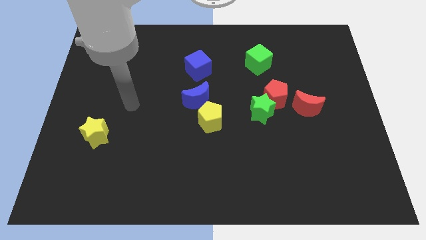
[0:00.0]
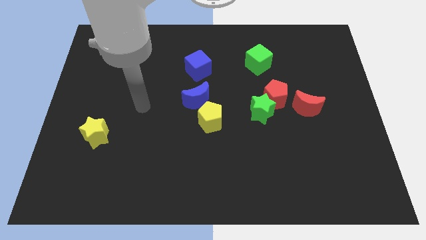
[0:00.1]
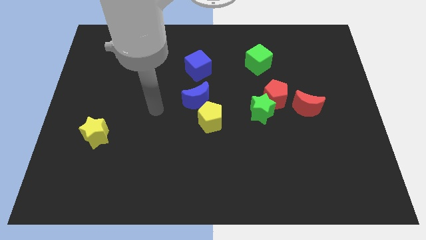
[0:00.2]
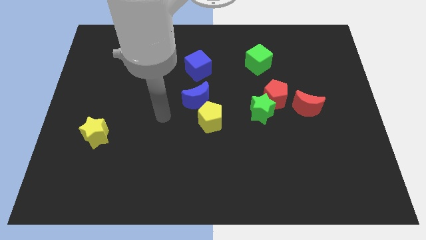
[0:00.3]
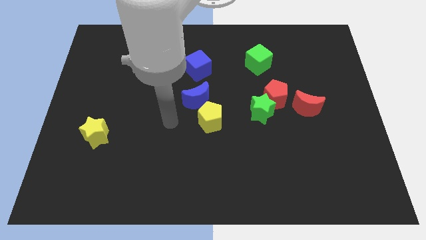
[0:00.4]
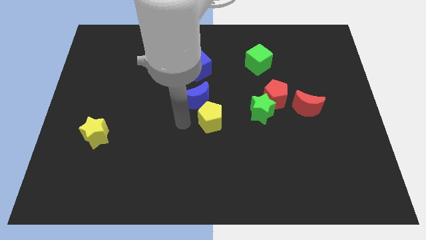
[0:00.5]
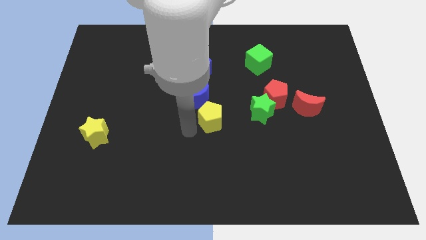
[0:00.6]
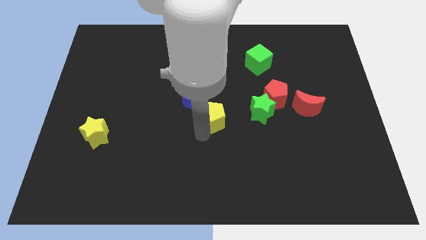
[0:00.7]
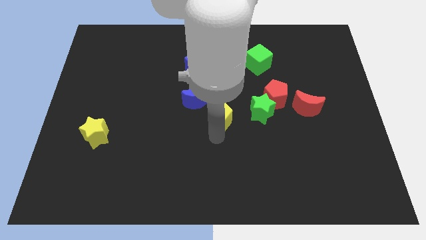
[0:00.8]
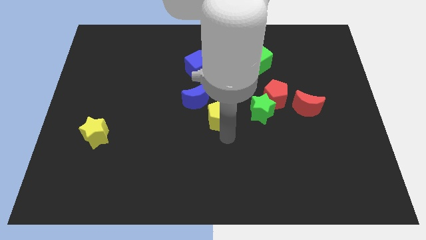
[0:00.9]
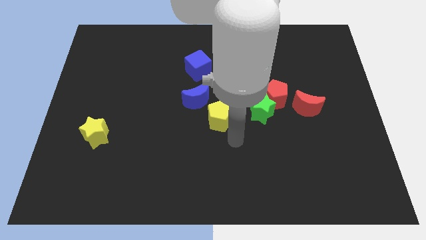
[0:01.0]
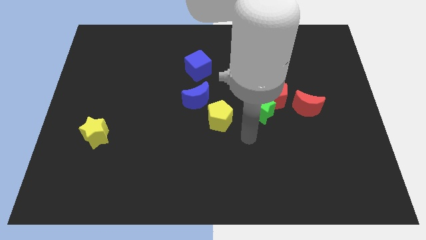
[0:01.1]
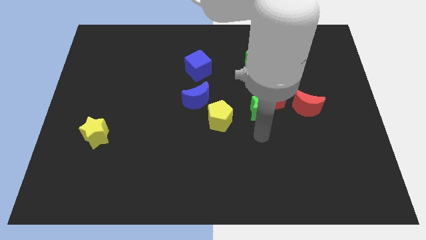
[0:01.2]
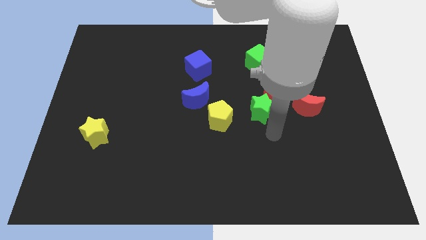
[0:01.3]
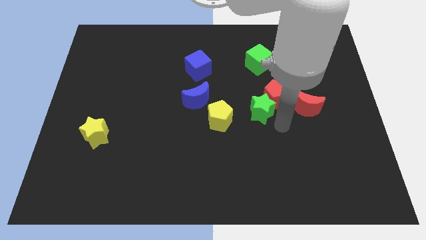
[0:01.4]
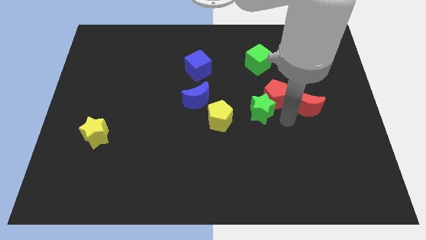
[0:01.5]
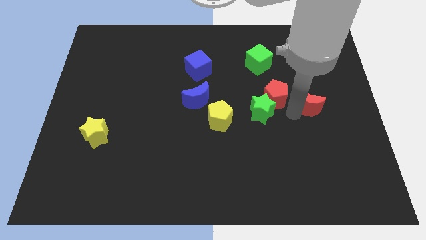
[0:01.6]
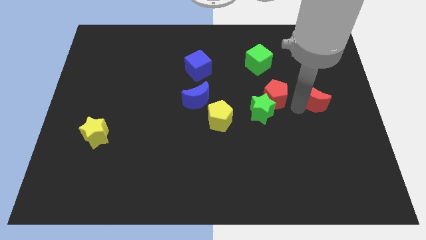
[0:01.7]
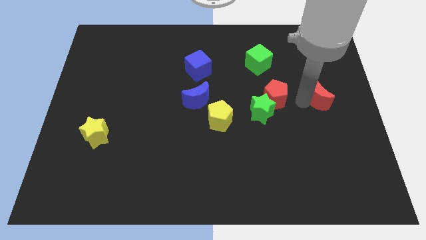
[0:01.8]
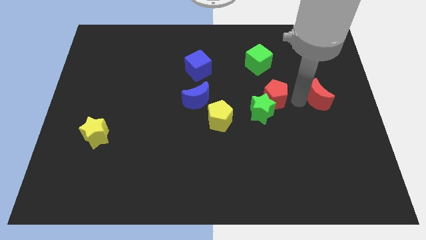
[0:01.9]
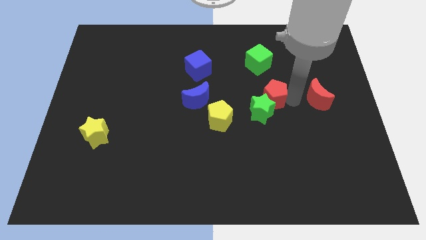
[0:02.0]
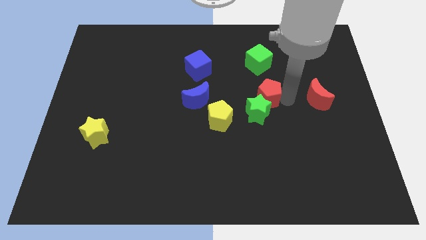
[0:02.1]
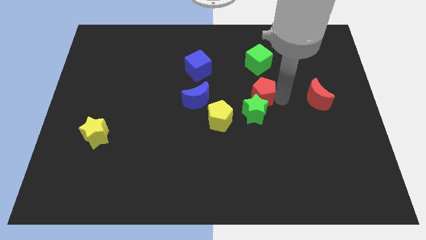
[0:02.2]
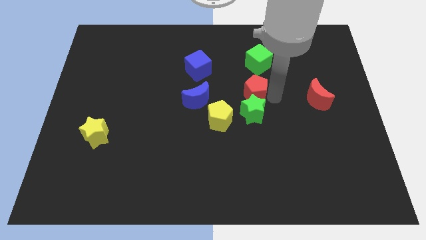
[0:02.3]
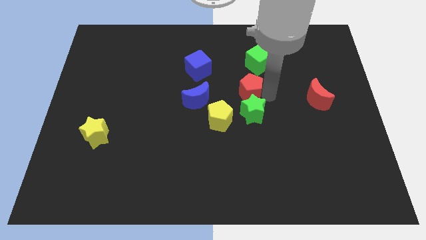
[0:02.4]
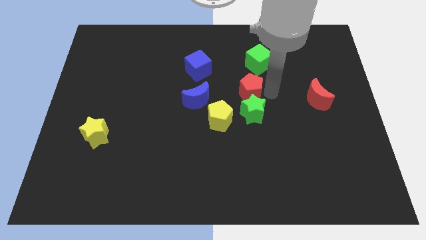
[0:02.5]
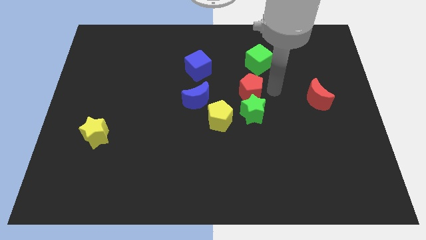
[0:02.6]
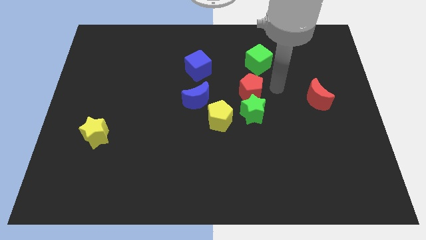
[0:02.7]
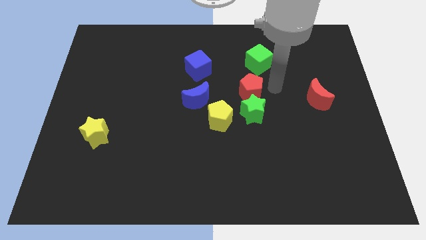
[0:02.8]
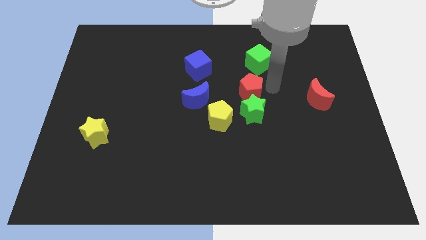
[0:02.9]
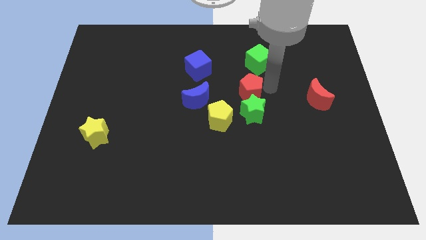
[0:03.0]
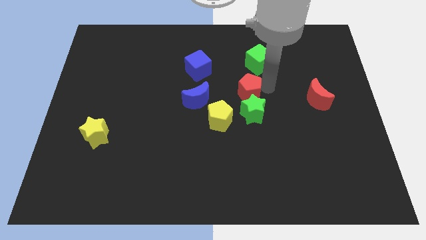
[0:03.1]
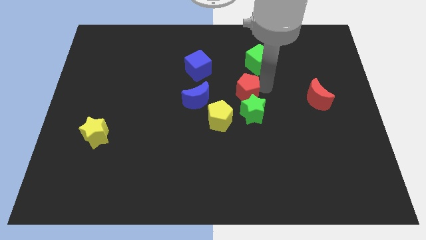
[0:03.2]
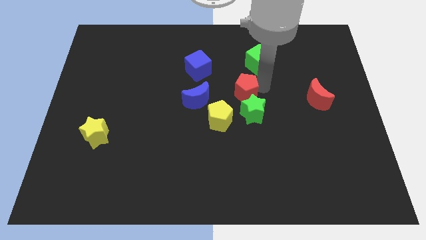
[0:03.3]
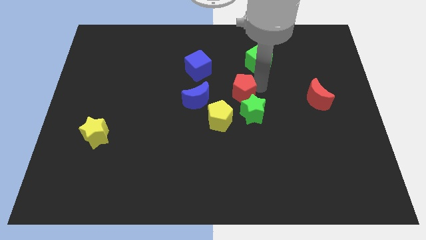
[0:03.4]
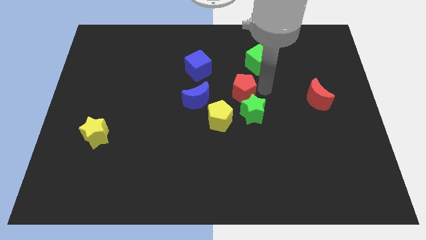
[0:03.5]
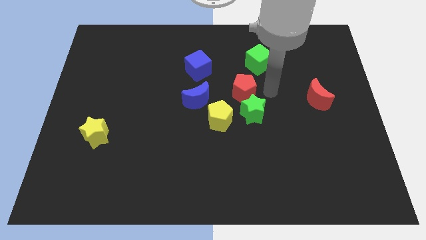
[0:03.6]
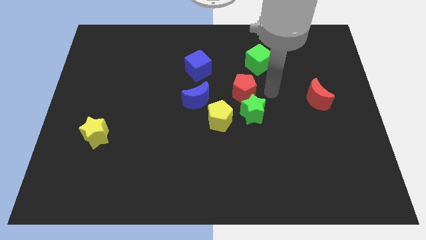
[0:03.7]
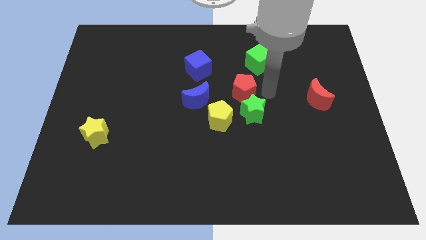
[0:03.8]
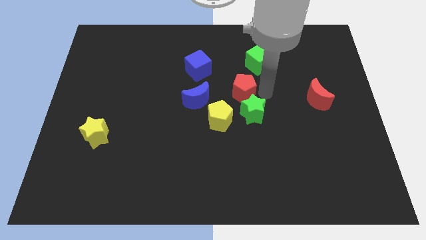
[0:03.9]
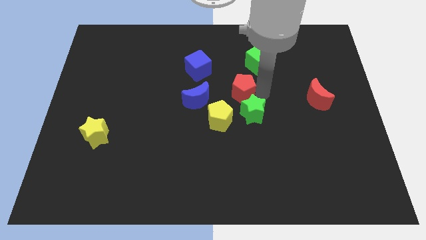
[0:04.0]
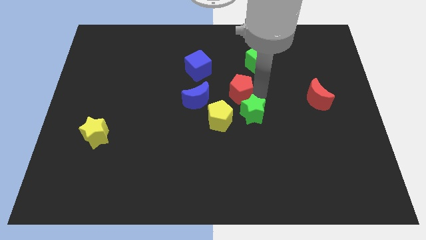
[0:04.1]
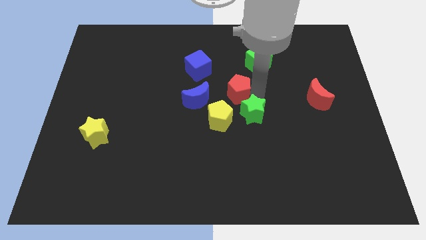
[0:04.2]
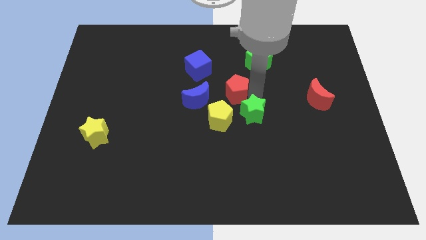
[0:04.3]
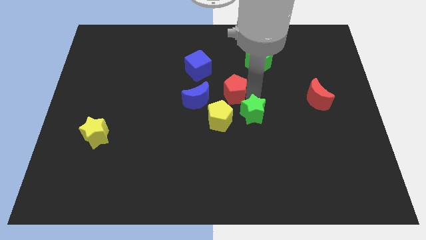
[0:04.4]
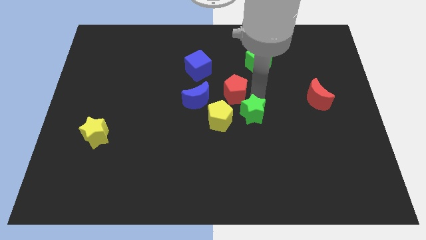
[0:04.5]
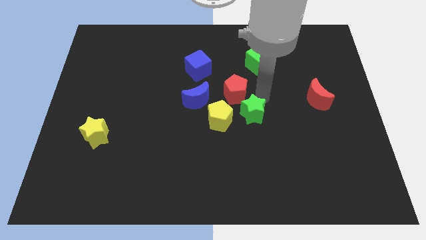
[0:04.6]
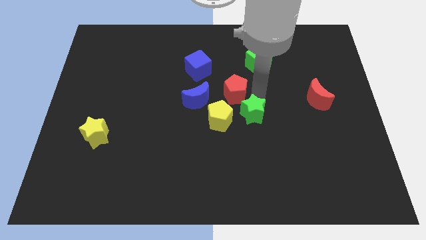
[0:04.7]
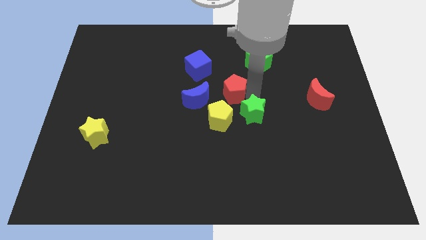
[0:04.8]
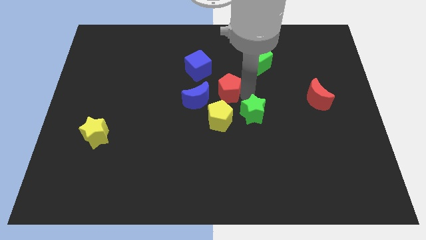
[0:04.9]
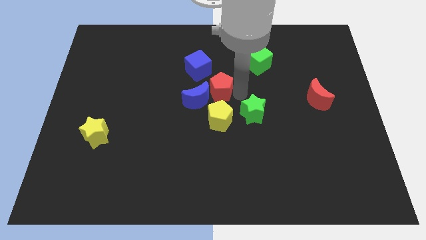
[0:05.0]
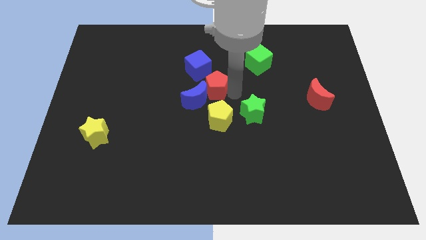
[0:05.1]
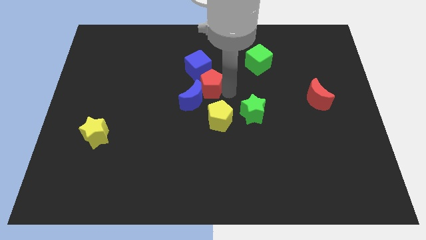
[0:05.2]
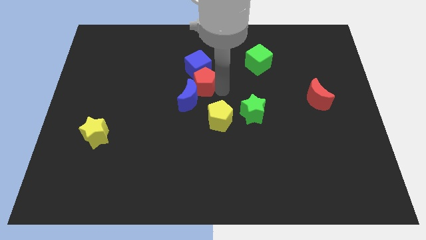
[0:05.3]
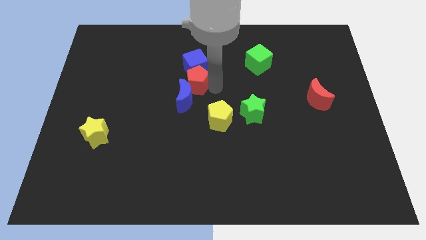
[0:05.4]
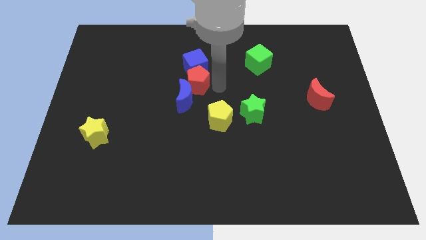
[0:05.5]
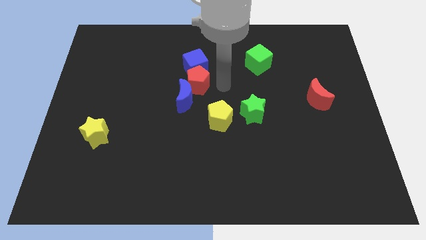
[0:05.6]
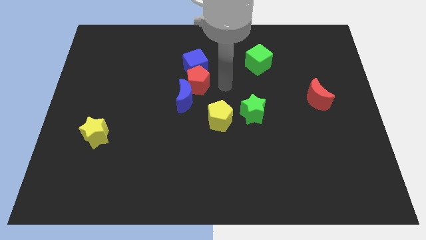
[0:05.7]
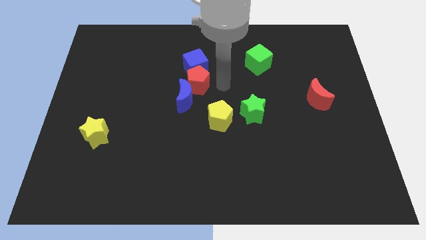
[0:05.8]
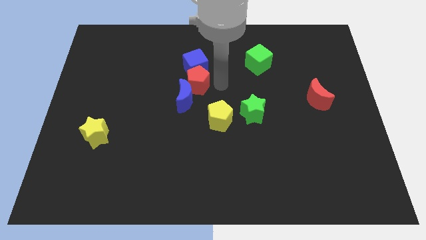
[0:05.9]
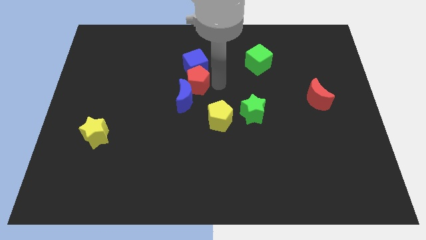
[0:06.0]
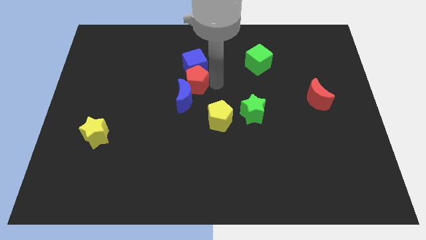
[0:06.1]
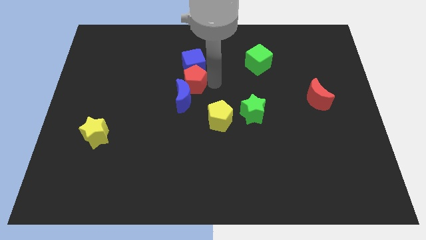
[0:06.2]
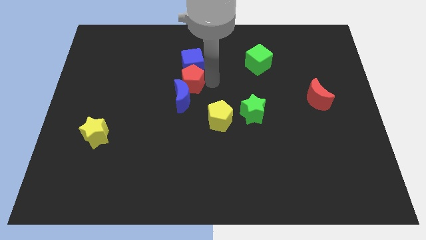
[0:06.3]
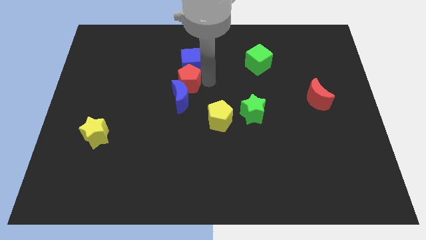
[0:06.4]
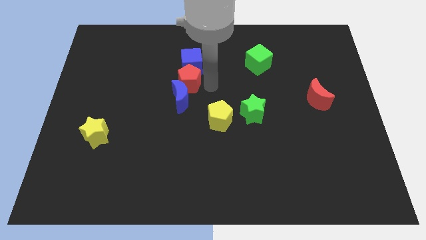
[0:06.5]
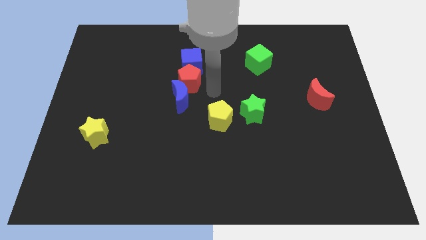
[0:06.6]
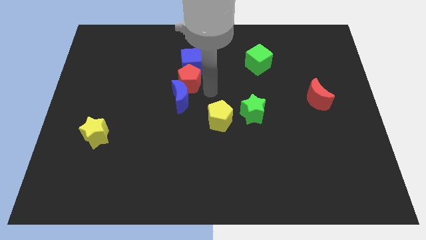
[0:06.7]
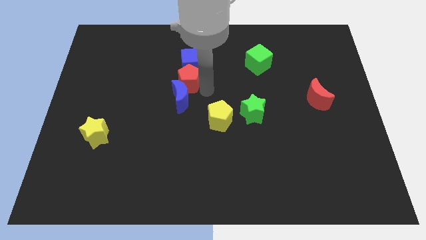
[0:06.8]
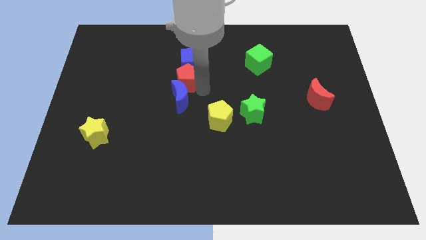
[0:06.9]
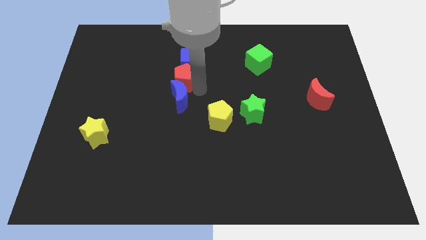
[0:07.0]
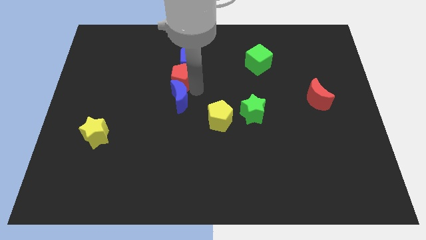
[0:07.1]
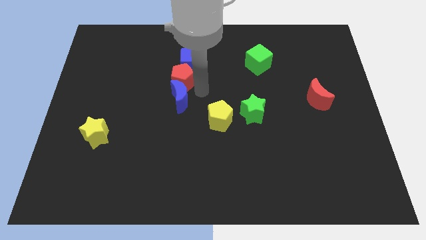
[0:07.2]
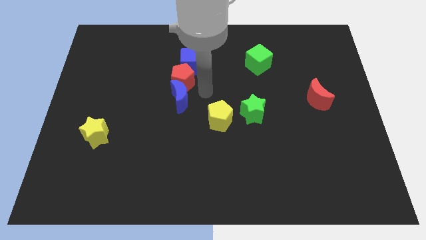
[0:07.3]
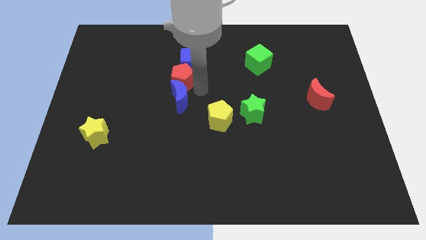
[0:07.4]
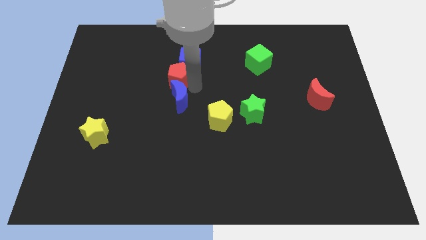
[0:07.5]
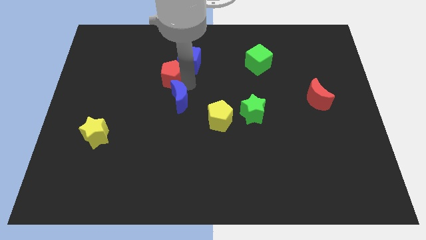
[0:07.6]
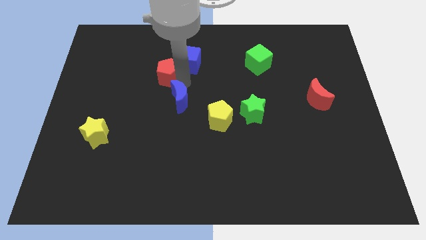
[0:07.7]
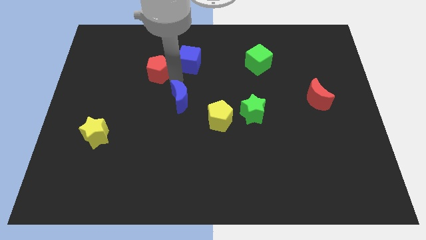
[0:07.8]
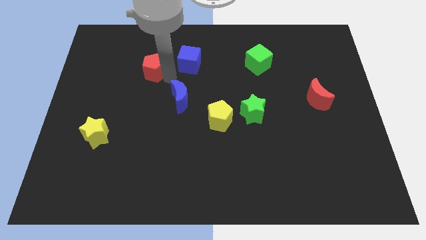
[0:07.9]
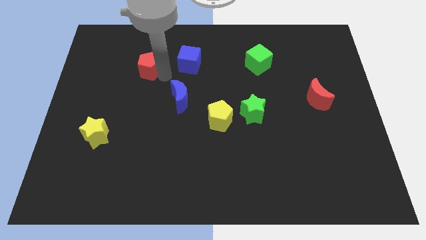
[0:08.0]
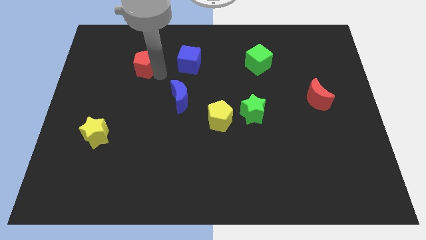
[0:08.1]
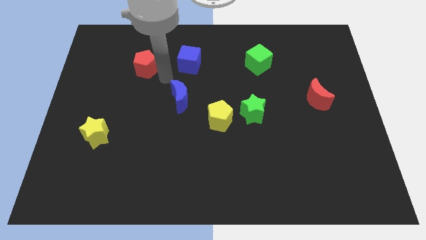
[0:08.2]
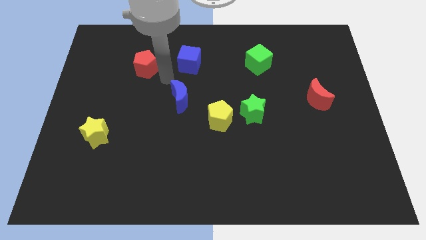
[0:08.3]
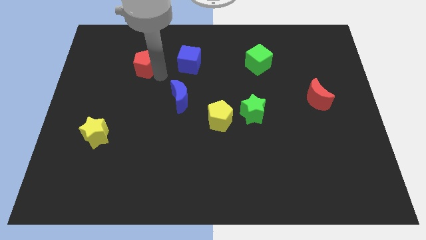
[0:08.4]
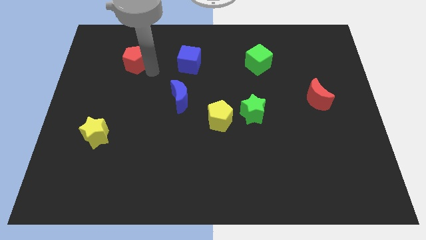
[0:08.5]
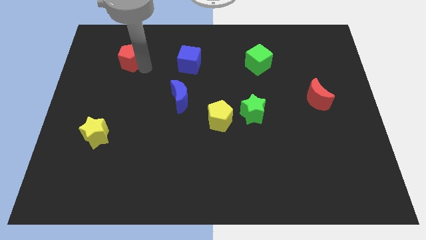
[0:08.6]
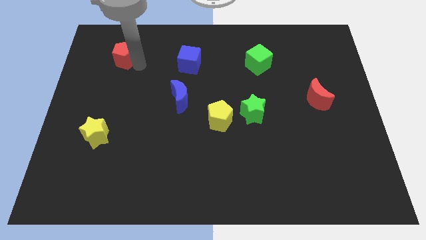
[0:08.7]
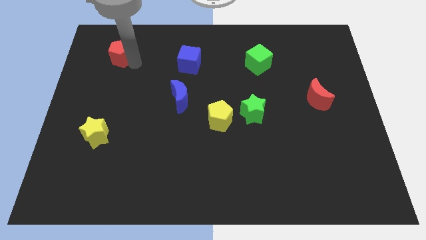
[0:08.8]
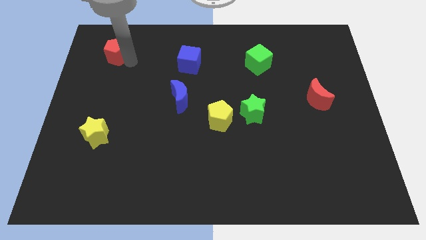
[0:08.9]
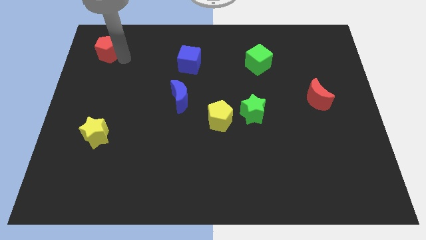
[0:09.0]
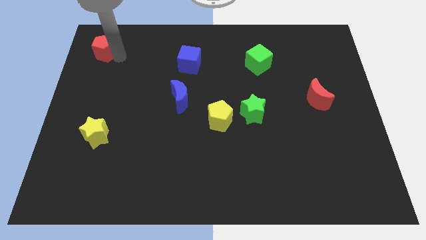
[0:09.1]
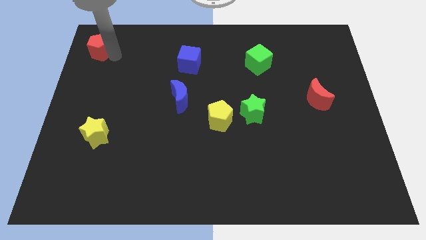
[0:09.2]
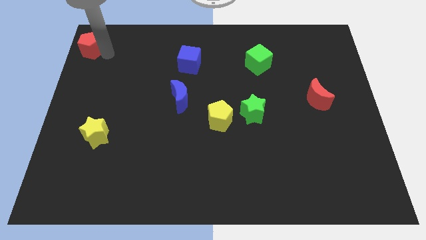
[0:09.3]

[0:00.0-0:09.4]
put the red pentagon to the top left of the board
